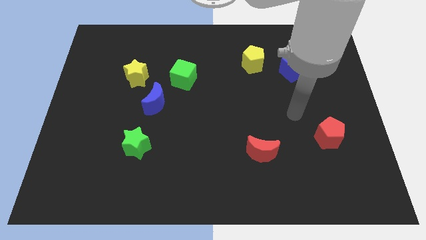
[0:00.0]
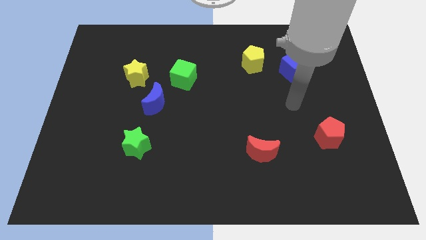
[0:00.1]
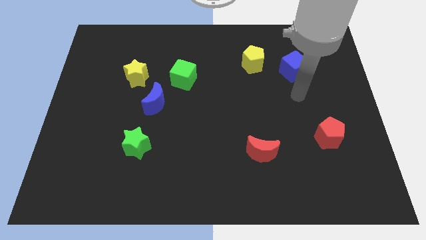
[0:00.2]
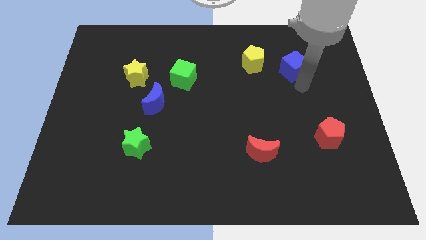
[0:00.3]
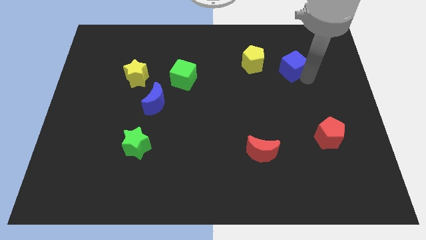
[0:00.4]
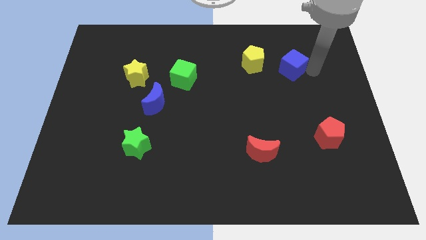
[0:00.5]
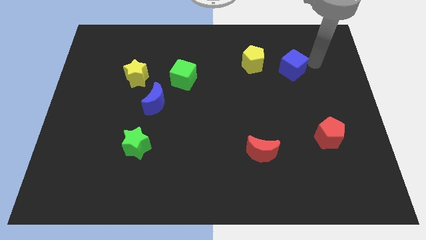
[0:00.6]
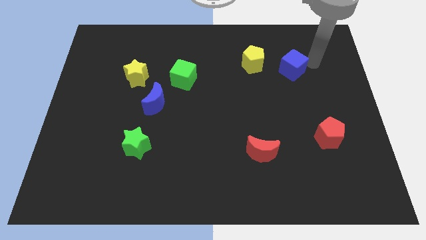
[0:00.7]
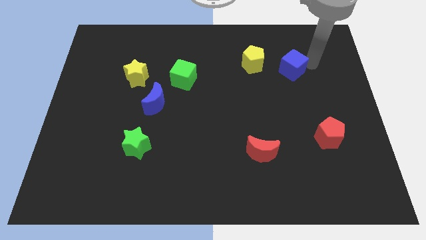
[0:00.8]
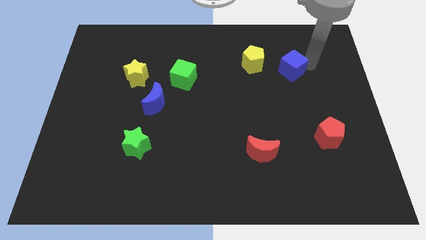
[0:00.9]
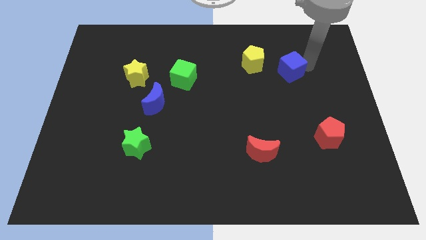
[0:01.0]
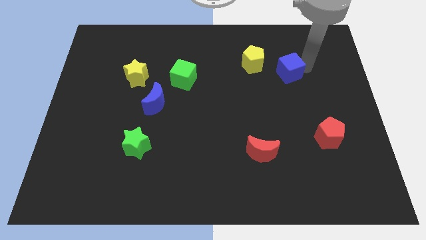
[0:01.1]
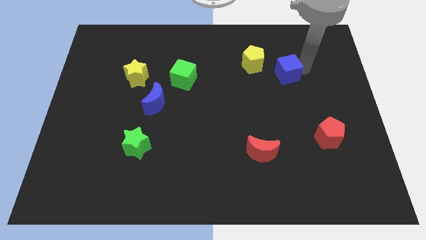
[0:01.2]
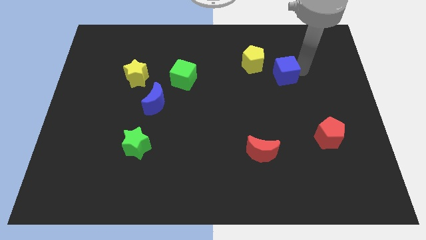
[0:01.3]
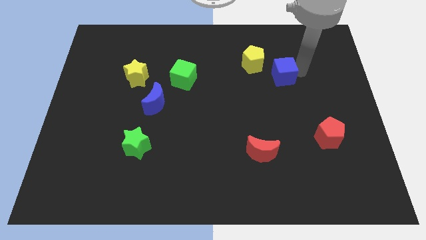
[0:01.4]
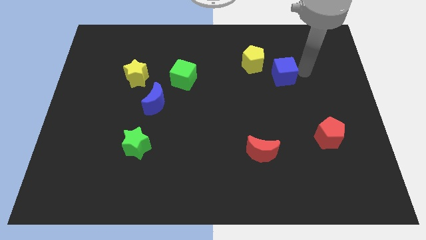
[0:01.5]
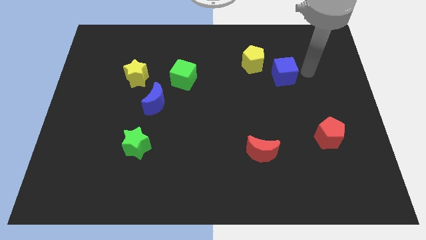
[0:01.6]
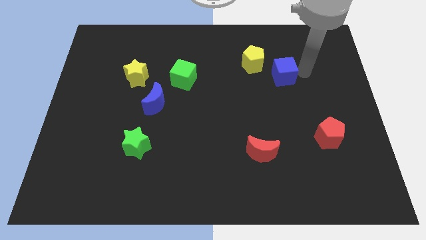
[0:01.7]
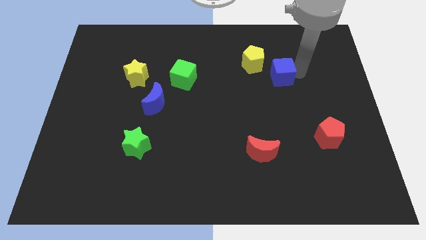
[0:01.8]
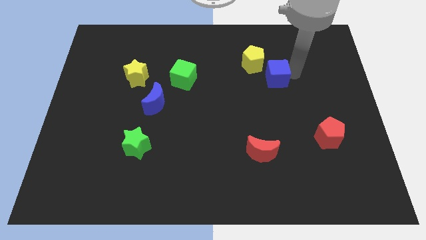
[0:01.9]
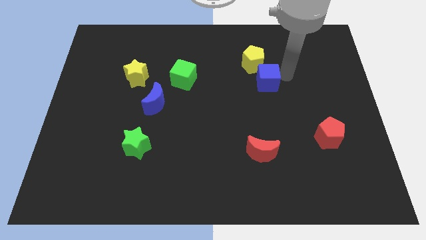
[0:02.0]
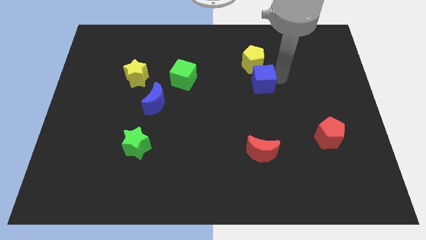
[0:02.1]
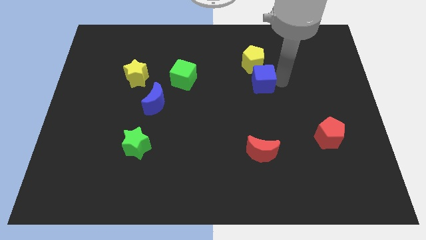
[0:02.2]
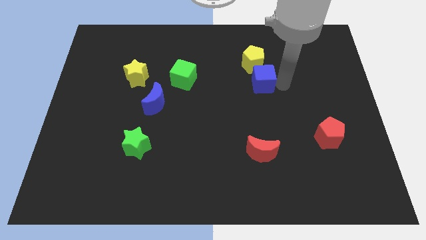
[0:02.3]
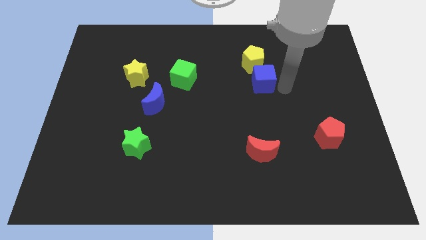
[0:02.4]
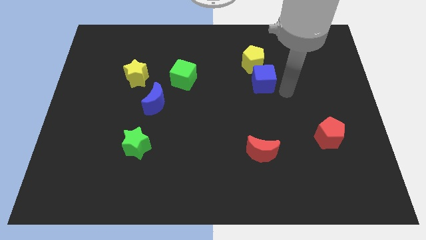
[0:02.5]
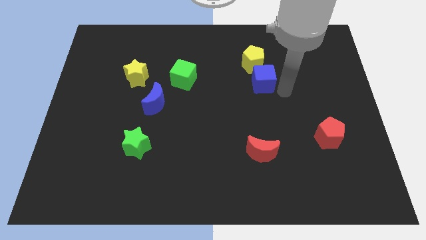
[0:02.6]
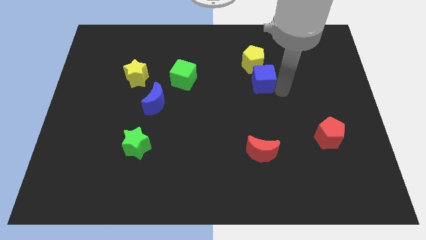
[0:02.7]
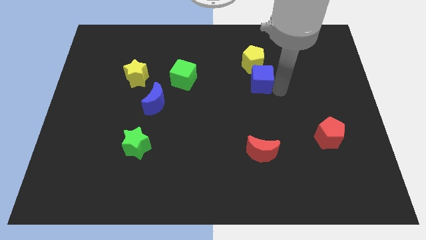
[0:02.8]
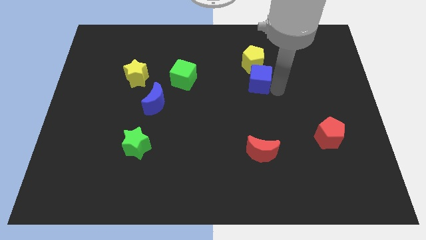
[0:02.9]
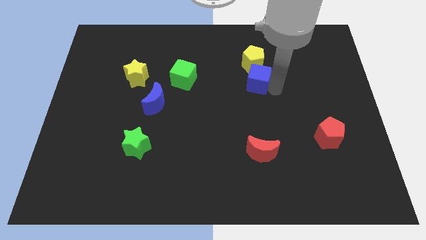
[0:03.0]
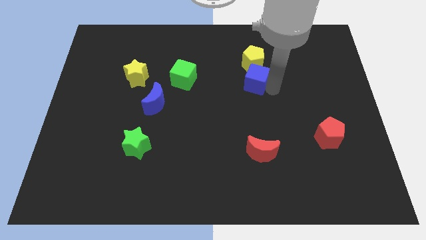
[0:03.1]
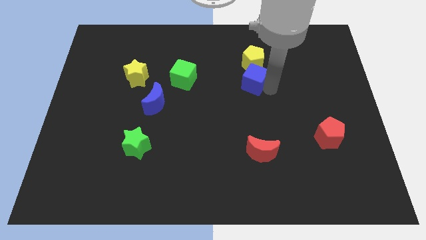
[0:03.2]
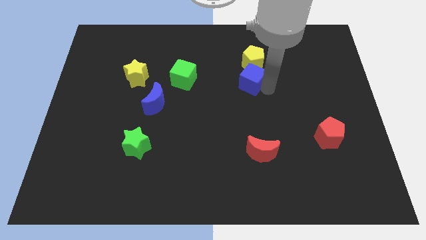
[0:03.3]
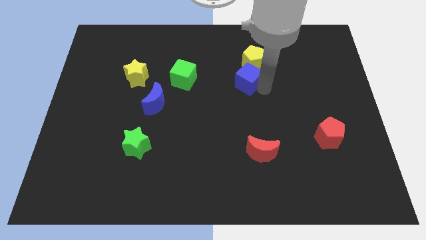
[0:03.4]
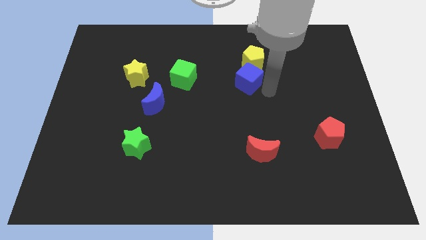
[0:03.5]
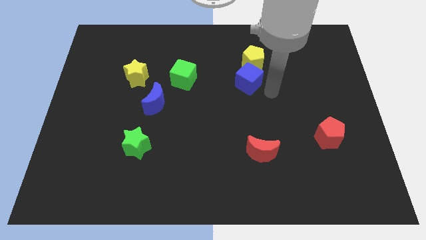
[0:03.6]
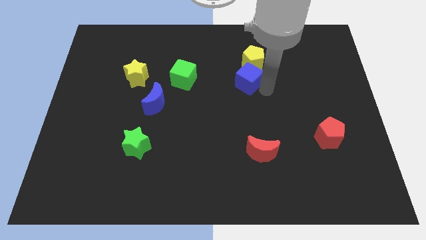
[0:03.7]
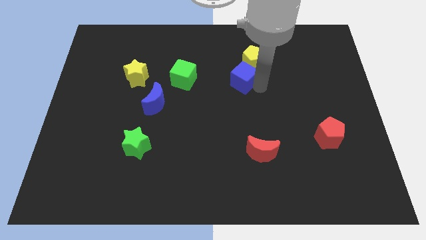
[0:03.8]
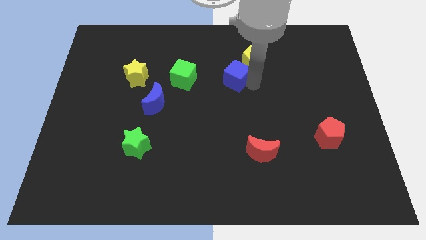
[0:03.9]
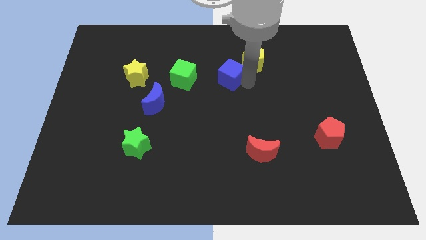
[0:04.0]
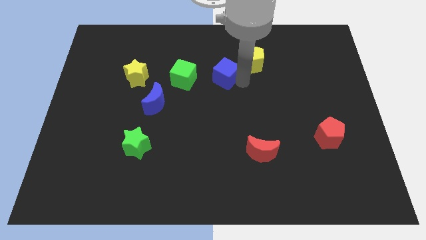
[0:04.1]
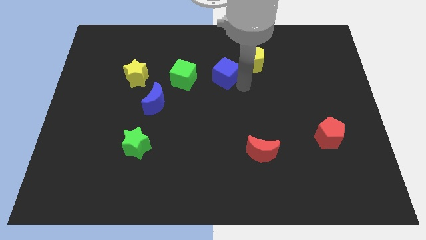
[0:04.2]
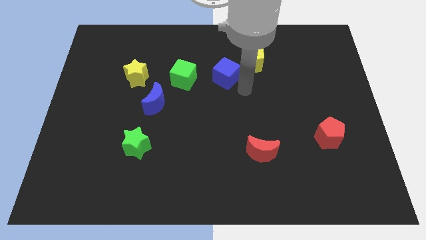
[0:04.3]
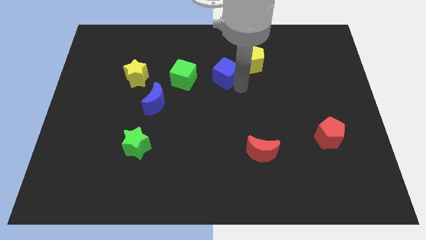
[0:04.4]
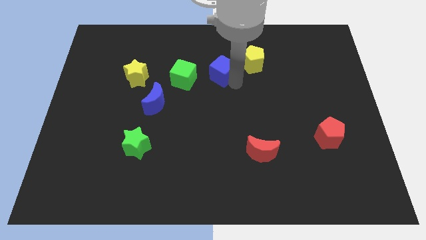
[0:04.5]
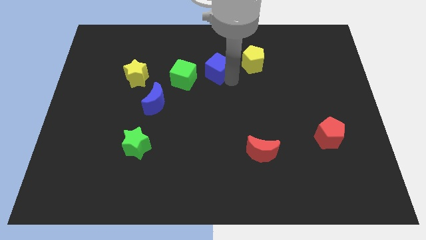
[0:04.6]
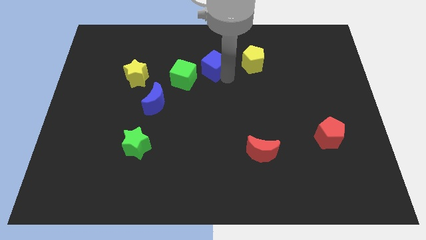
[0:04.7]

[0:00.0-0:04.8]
move the blue cube left

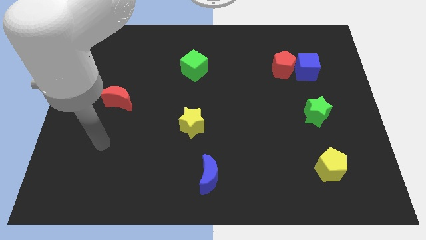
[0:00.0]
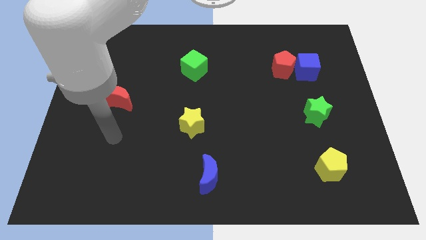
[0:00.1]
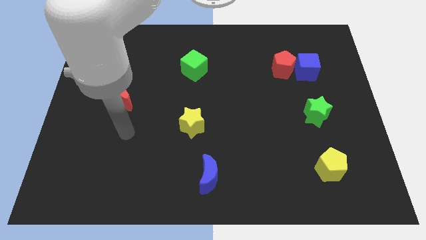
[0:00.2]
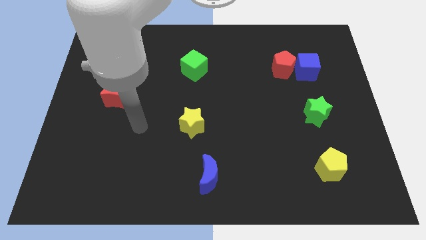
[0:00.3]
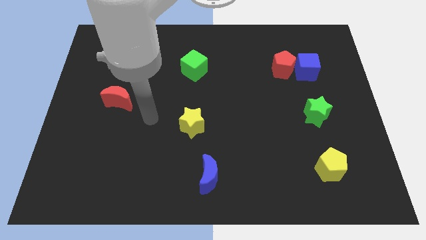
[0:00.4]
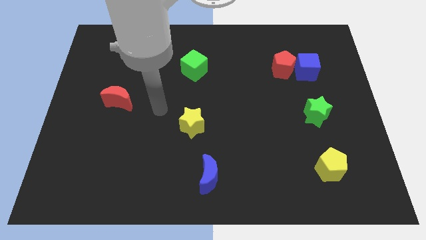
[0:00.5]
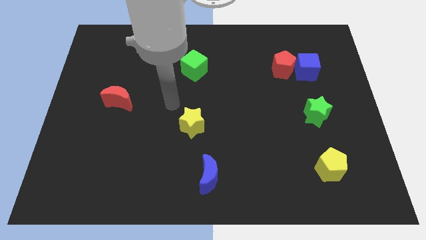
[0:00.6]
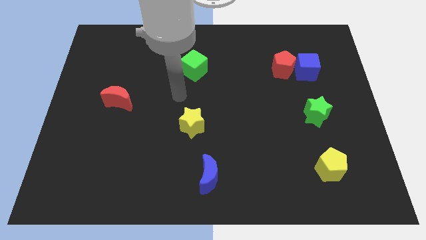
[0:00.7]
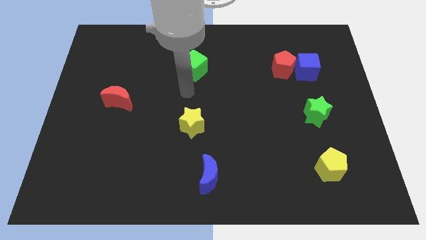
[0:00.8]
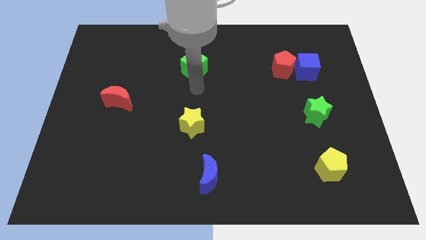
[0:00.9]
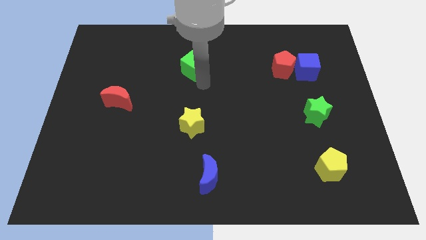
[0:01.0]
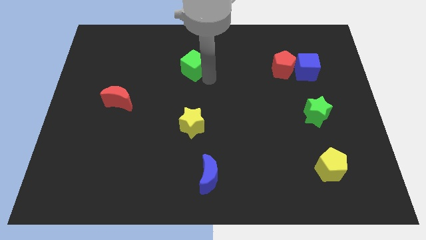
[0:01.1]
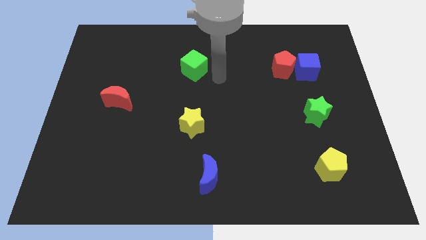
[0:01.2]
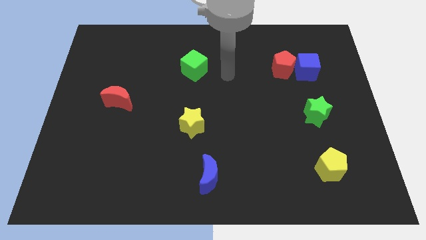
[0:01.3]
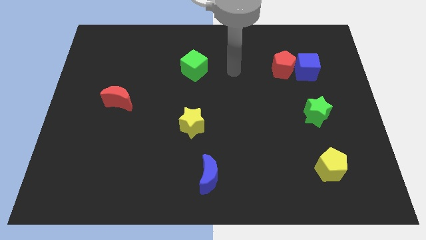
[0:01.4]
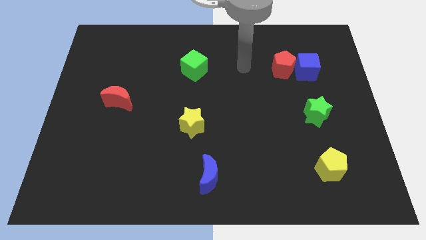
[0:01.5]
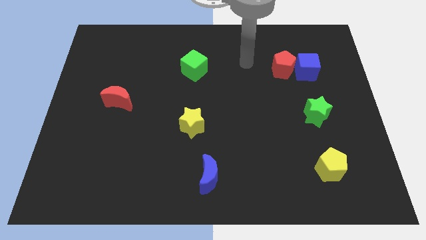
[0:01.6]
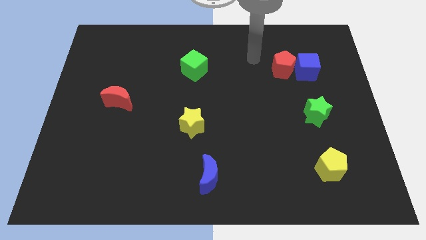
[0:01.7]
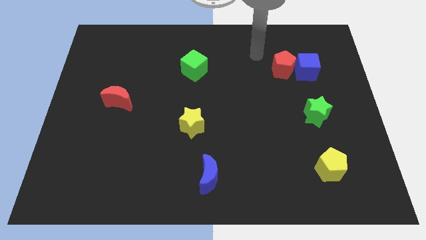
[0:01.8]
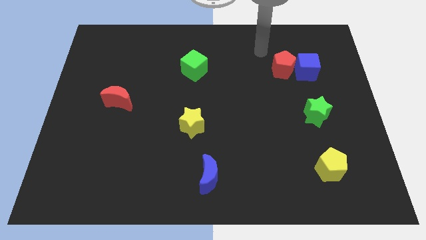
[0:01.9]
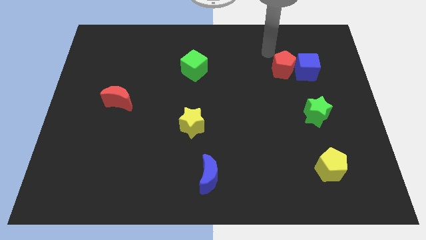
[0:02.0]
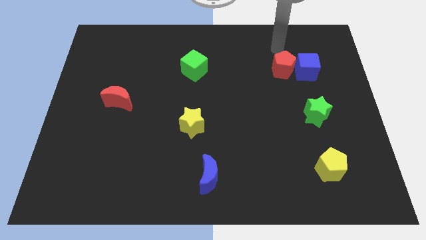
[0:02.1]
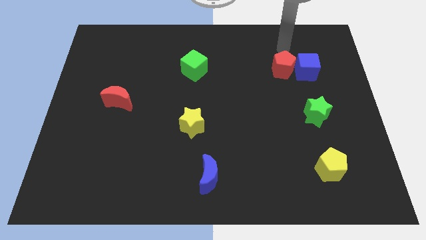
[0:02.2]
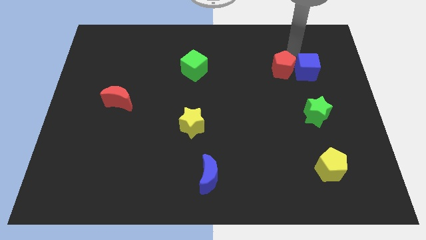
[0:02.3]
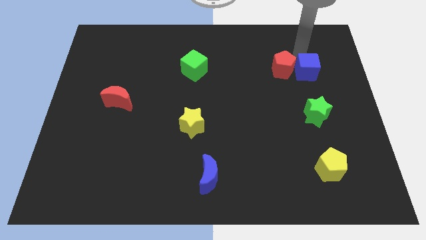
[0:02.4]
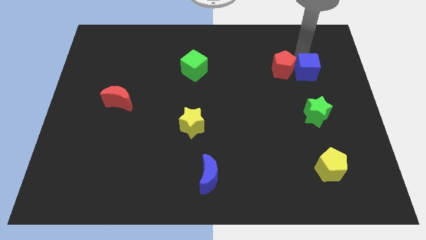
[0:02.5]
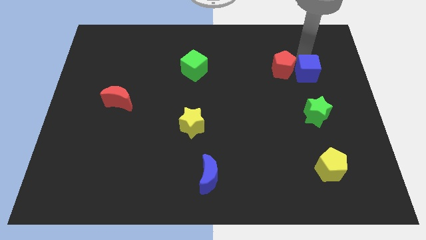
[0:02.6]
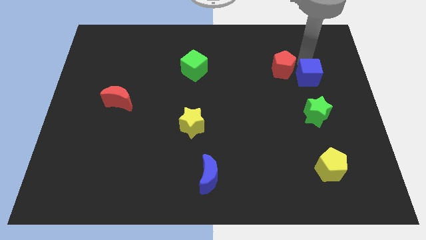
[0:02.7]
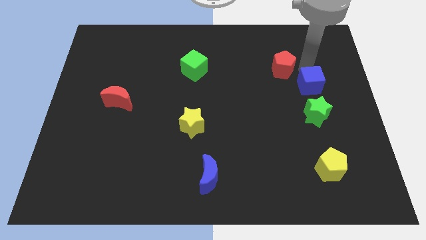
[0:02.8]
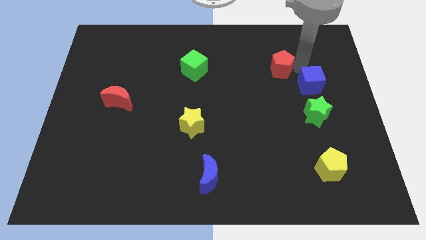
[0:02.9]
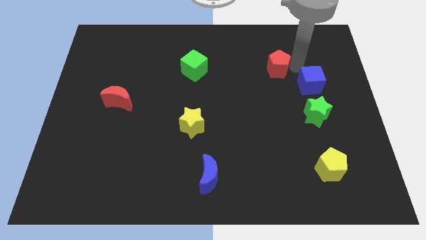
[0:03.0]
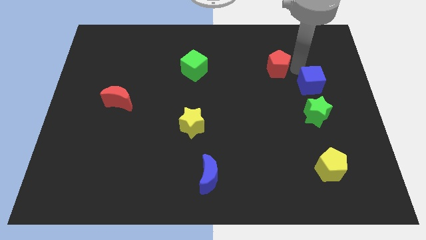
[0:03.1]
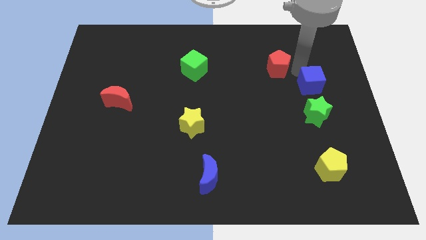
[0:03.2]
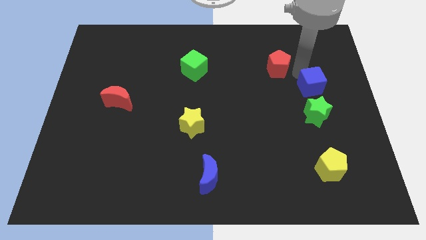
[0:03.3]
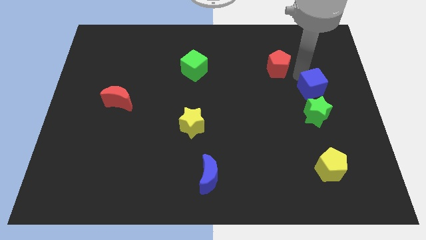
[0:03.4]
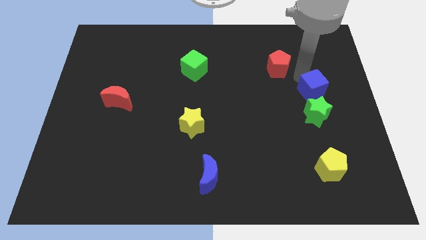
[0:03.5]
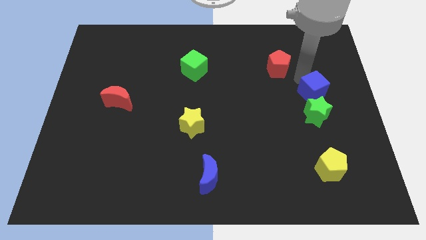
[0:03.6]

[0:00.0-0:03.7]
move the blue cube a bit downwards

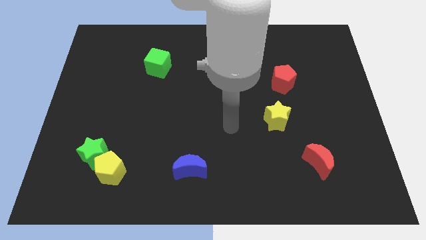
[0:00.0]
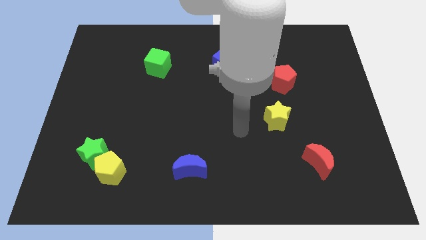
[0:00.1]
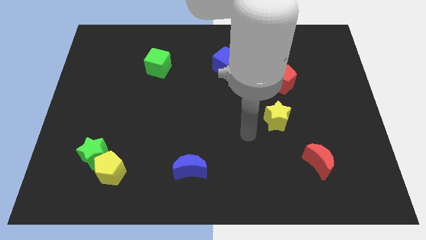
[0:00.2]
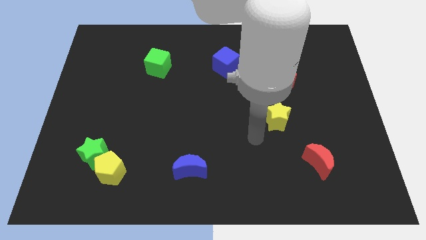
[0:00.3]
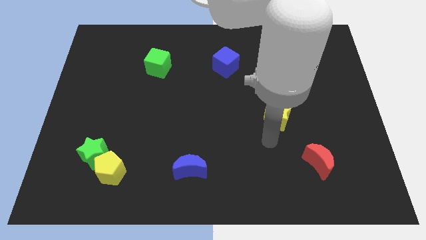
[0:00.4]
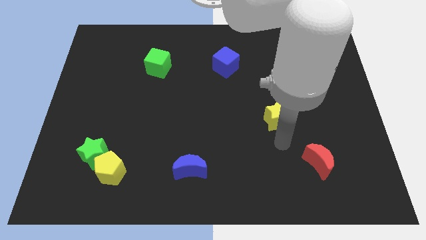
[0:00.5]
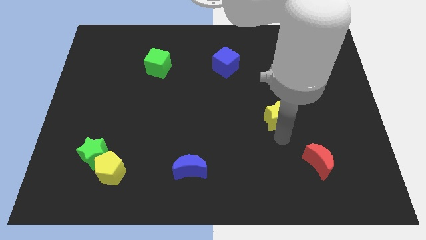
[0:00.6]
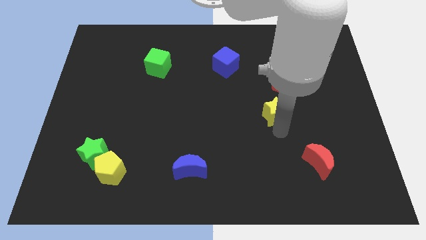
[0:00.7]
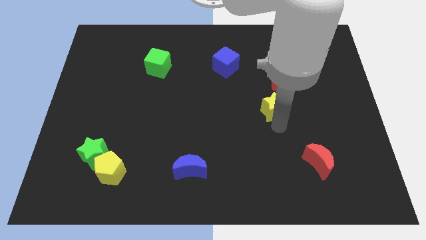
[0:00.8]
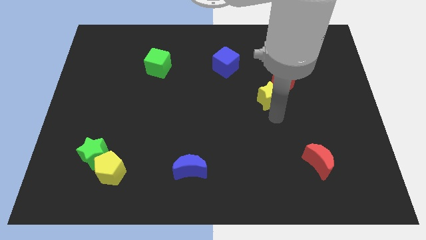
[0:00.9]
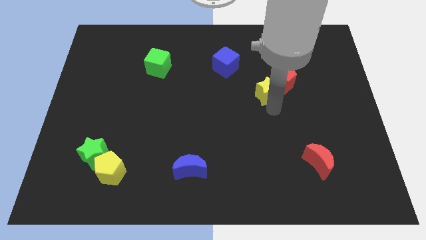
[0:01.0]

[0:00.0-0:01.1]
slightly push the yellow star upwards
